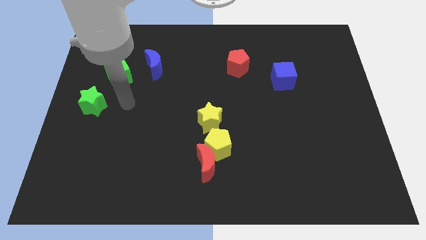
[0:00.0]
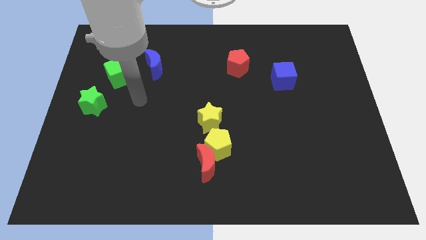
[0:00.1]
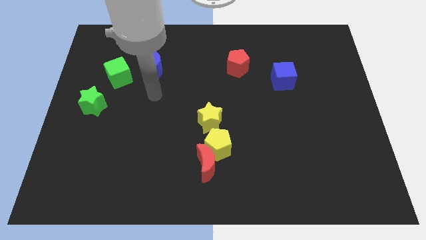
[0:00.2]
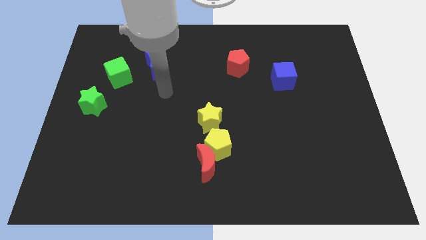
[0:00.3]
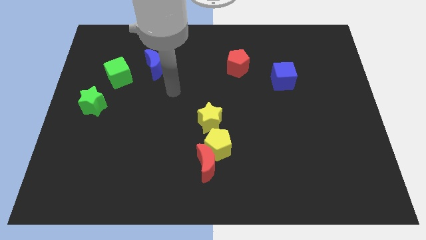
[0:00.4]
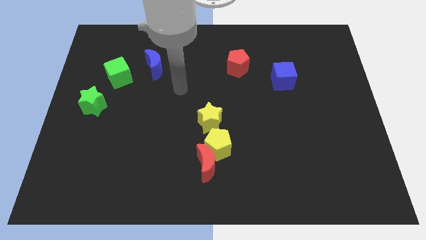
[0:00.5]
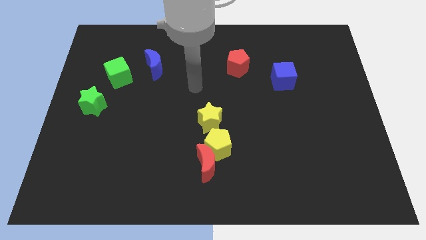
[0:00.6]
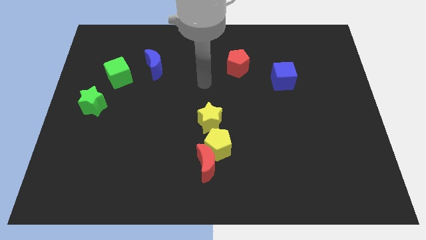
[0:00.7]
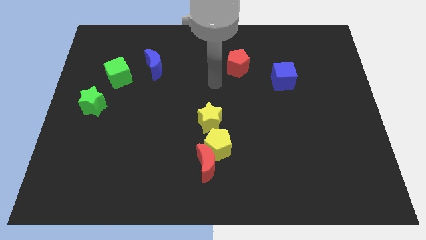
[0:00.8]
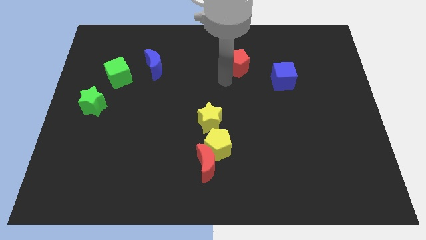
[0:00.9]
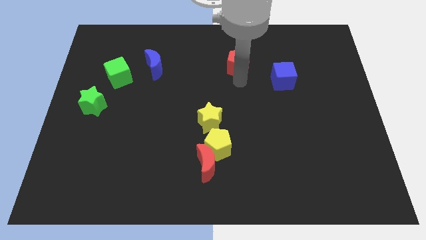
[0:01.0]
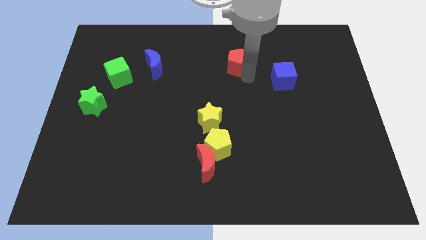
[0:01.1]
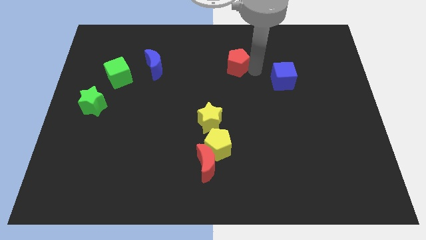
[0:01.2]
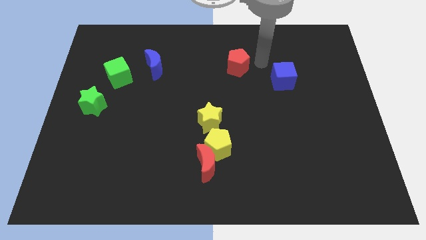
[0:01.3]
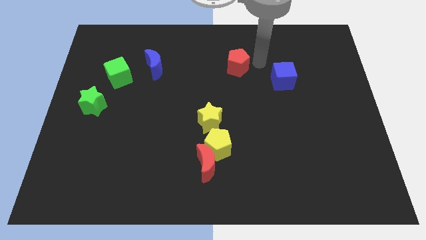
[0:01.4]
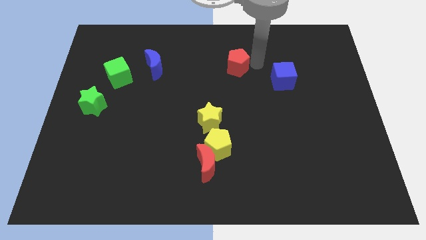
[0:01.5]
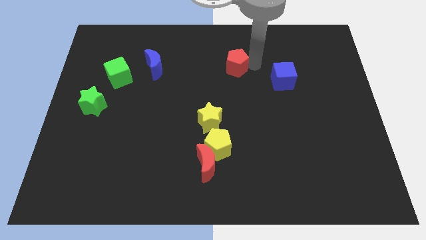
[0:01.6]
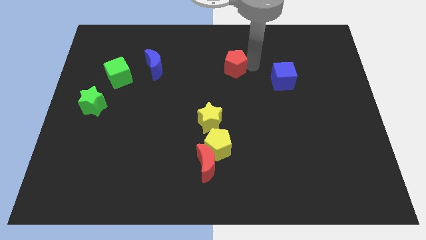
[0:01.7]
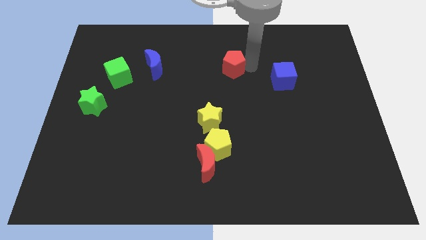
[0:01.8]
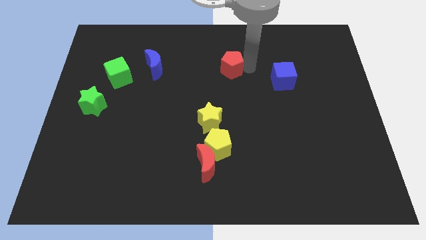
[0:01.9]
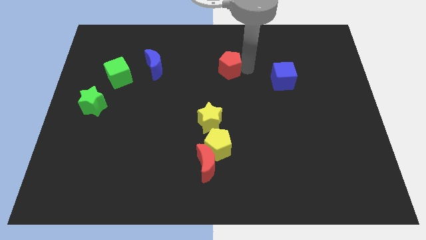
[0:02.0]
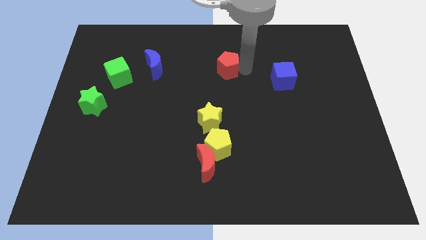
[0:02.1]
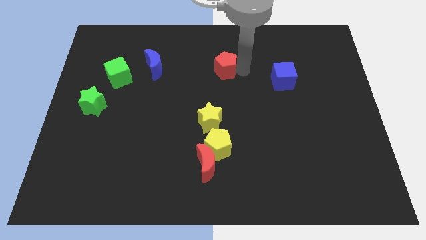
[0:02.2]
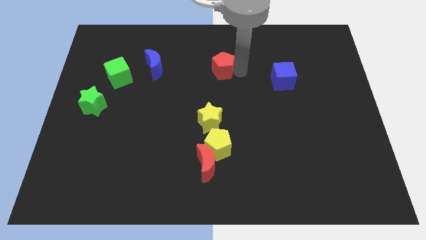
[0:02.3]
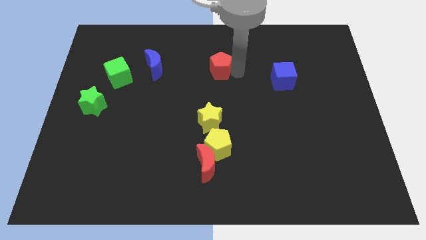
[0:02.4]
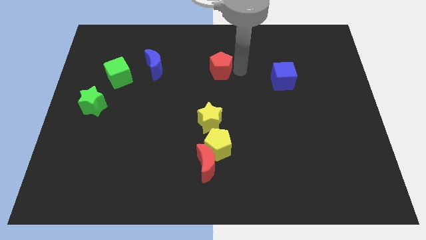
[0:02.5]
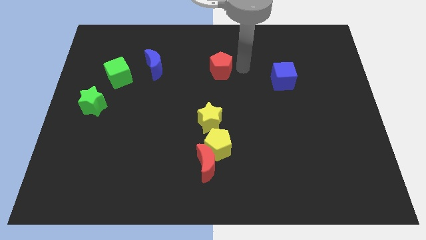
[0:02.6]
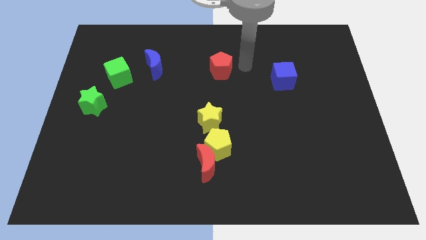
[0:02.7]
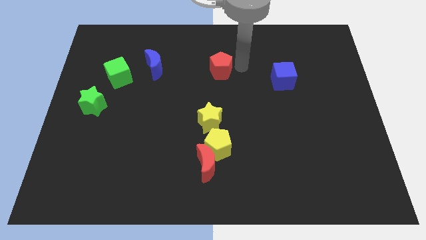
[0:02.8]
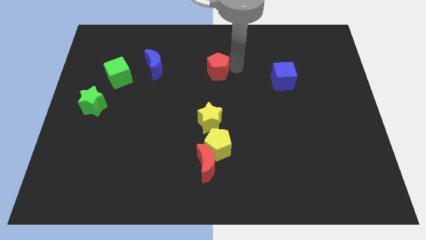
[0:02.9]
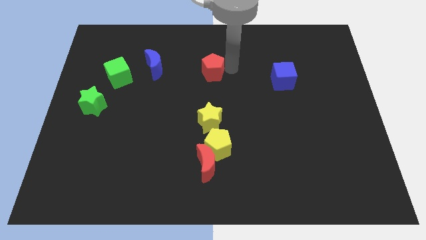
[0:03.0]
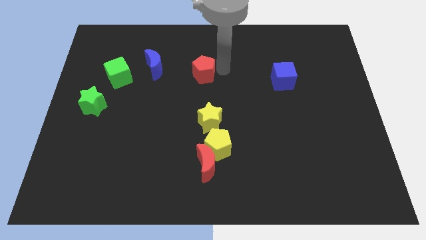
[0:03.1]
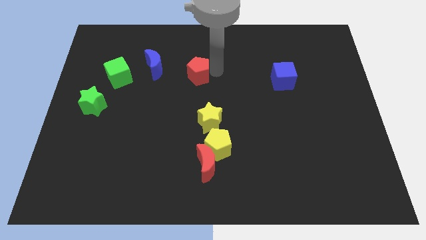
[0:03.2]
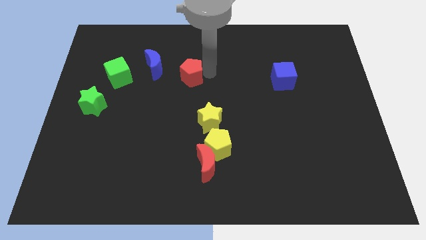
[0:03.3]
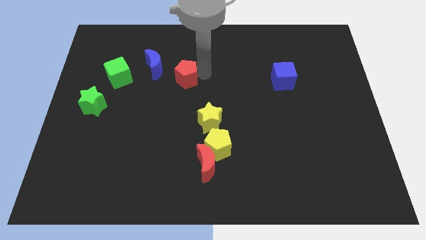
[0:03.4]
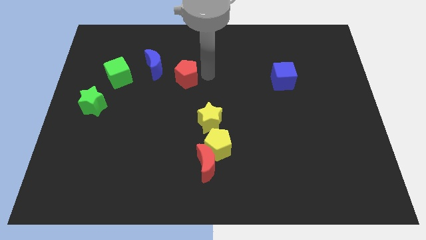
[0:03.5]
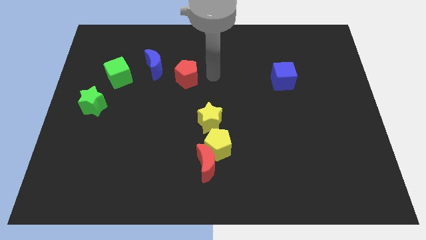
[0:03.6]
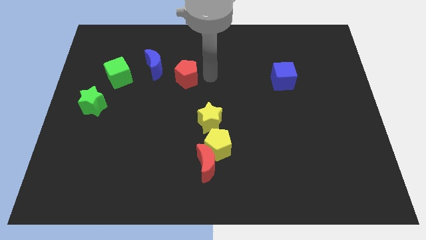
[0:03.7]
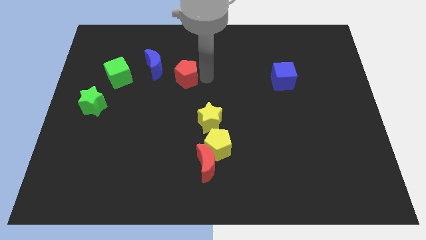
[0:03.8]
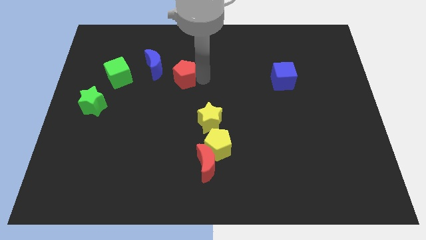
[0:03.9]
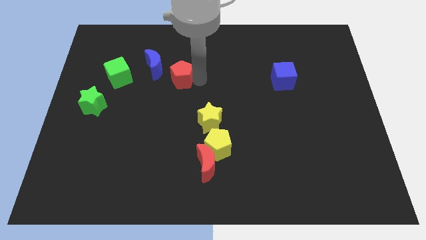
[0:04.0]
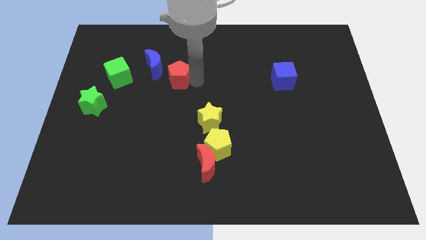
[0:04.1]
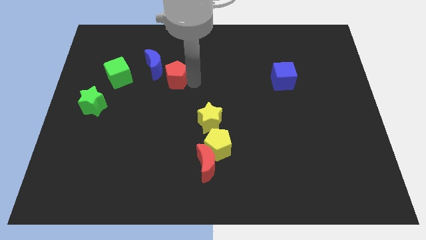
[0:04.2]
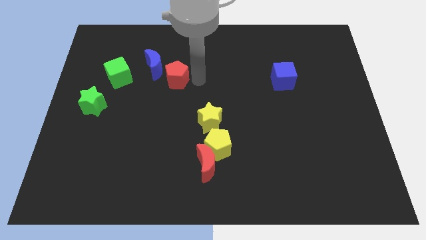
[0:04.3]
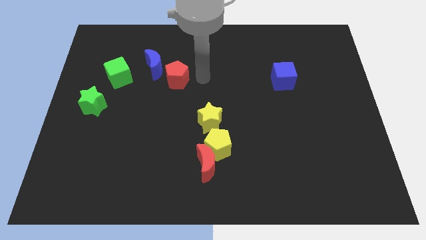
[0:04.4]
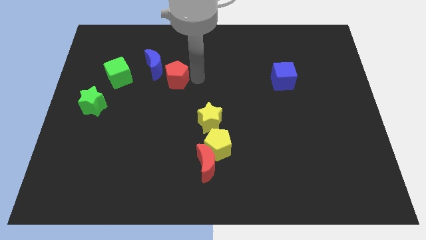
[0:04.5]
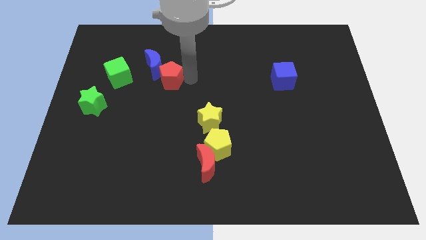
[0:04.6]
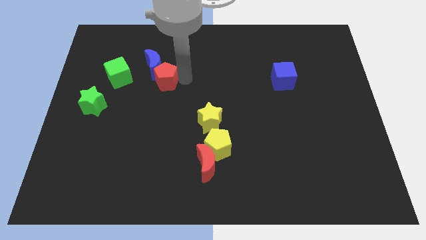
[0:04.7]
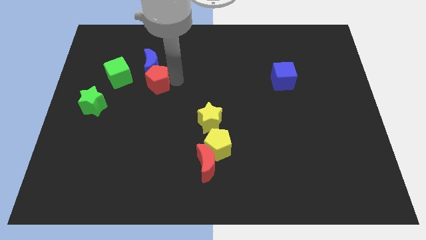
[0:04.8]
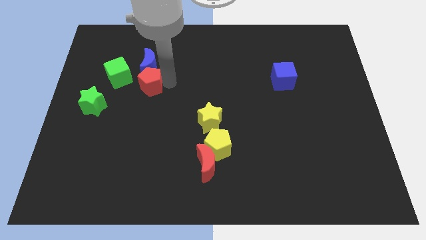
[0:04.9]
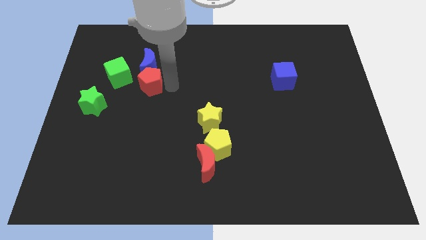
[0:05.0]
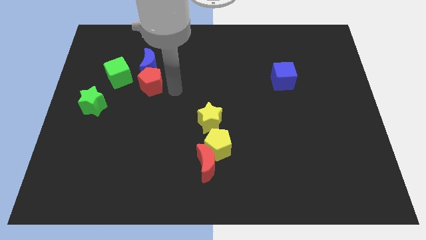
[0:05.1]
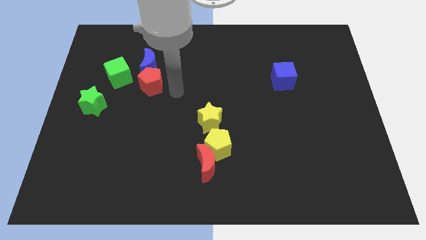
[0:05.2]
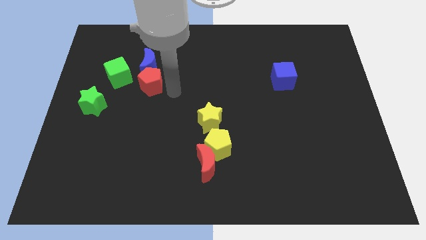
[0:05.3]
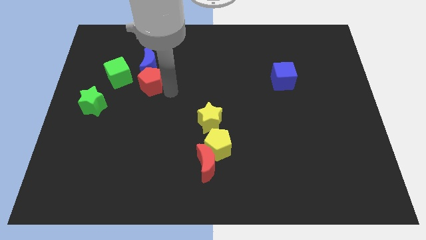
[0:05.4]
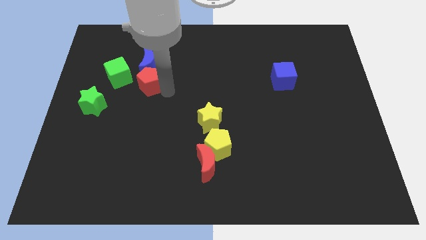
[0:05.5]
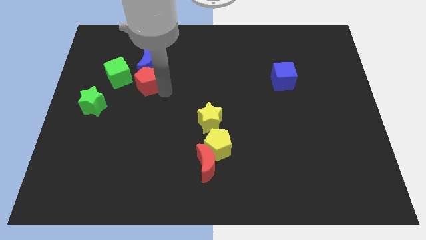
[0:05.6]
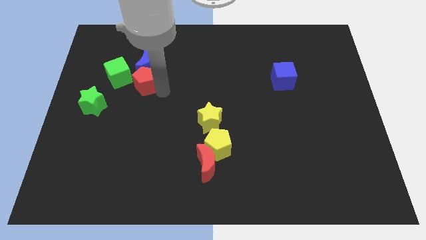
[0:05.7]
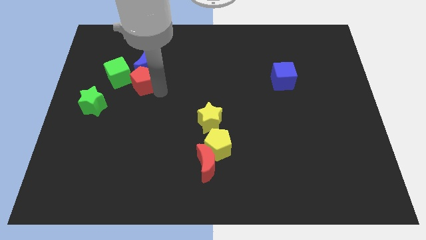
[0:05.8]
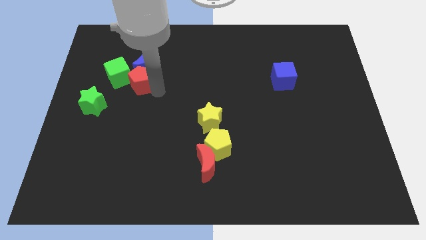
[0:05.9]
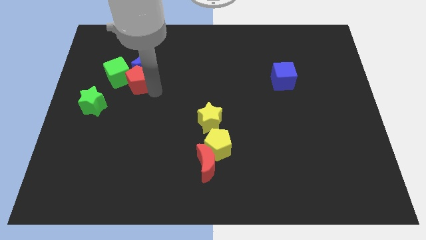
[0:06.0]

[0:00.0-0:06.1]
move the red pentagon to the green cube

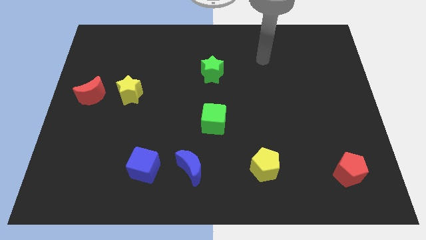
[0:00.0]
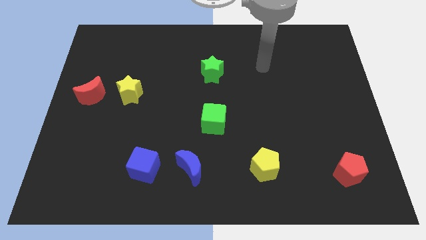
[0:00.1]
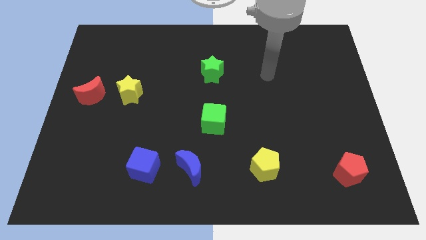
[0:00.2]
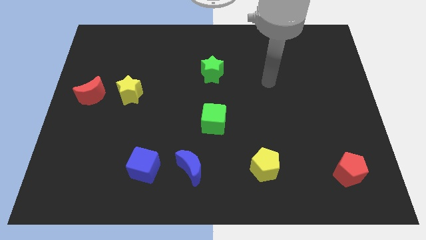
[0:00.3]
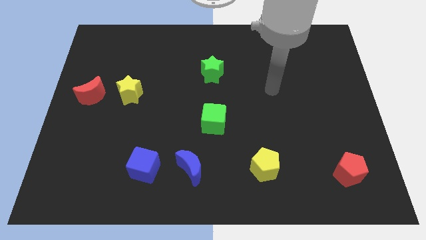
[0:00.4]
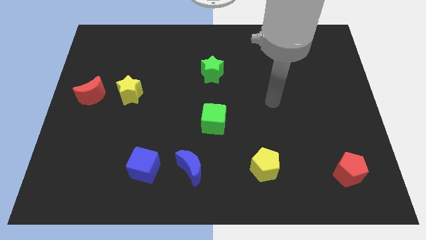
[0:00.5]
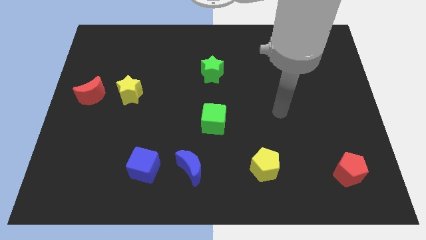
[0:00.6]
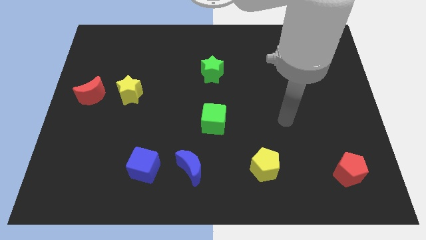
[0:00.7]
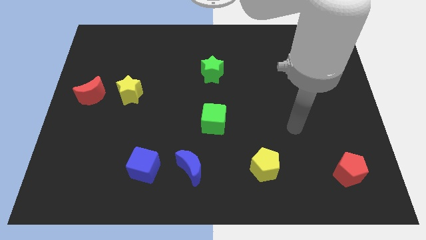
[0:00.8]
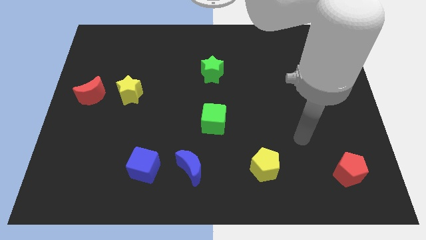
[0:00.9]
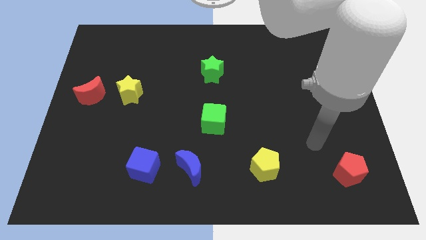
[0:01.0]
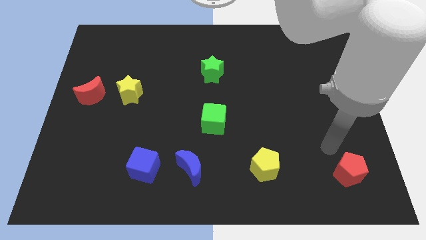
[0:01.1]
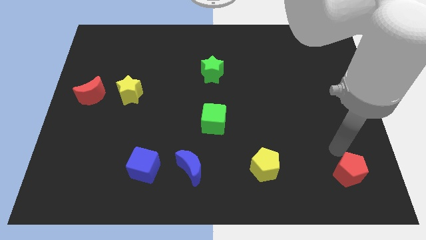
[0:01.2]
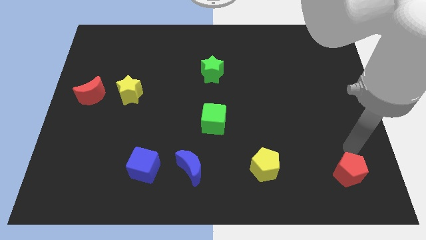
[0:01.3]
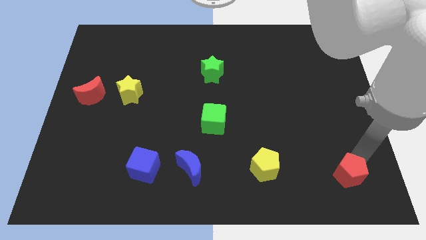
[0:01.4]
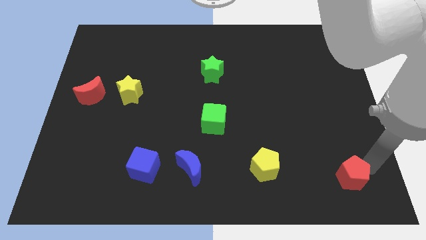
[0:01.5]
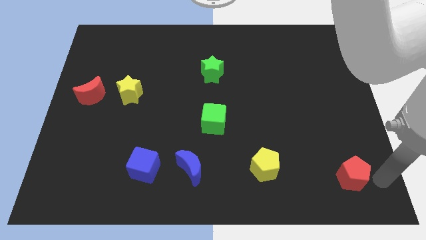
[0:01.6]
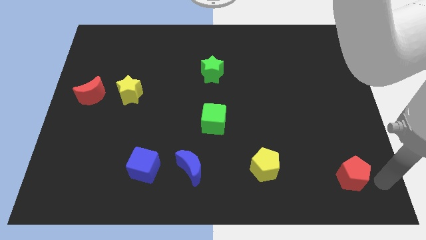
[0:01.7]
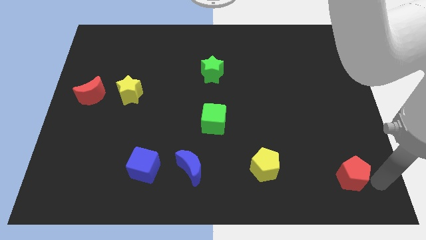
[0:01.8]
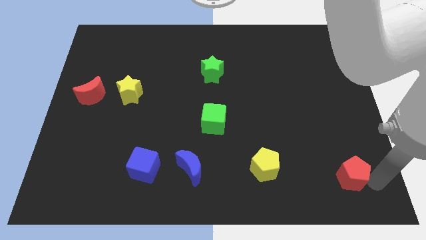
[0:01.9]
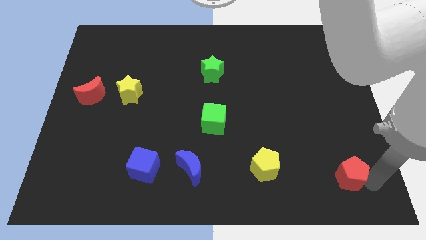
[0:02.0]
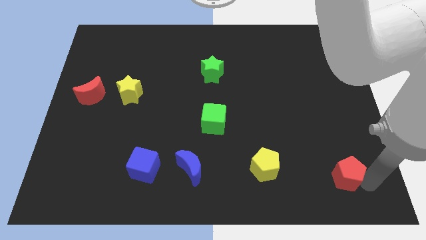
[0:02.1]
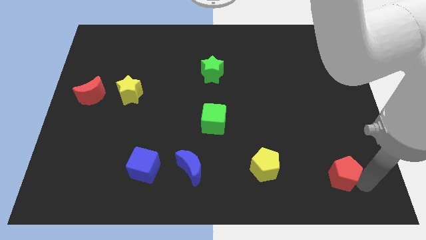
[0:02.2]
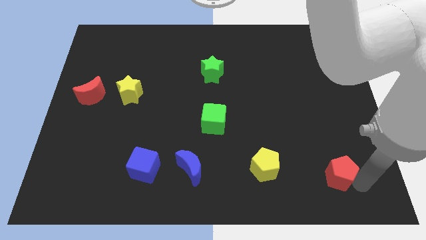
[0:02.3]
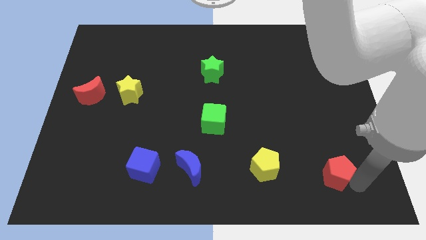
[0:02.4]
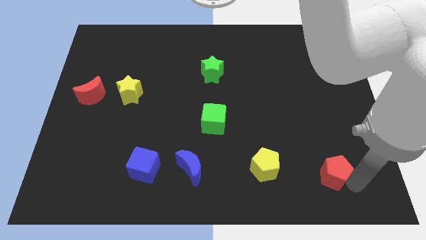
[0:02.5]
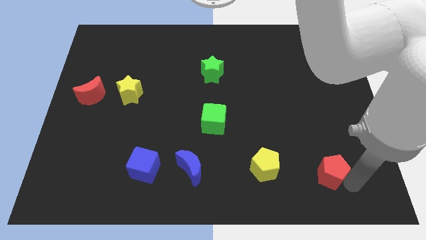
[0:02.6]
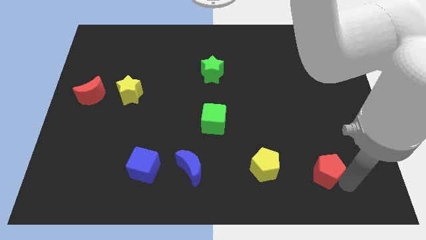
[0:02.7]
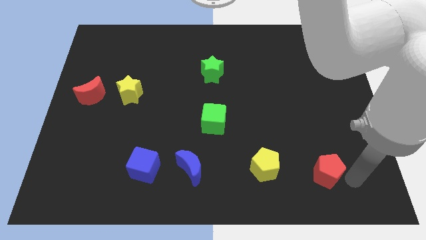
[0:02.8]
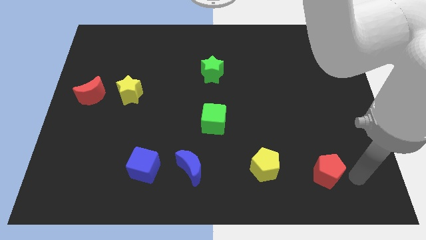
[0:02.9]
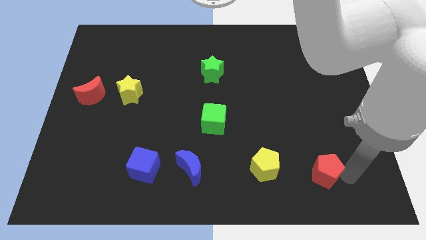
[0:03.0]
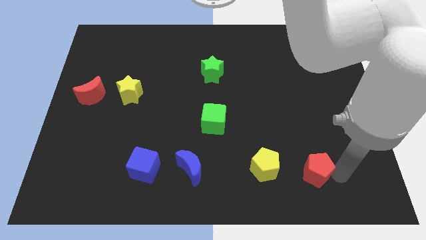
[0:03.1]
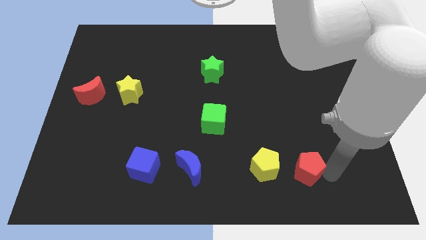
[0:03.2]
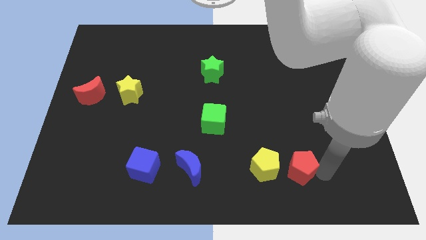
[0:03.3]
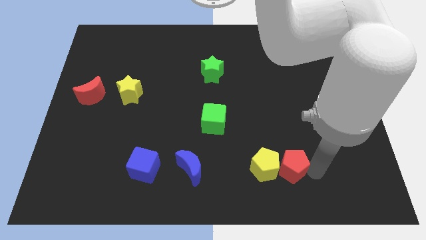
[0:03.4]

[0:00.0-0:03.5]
put the red pentagon close to the yellow pentagon
